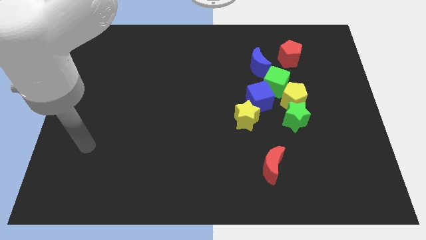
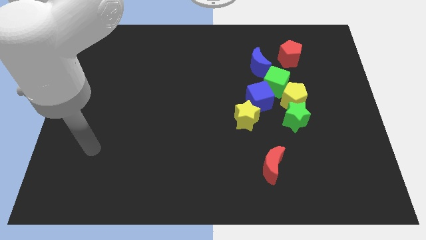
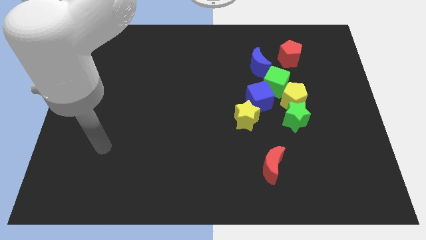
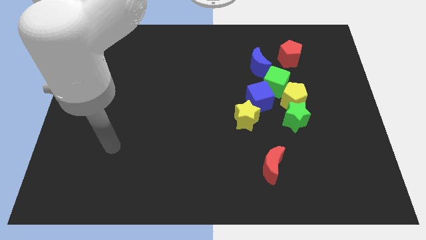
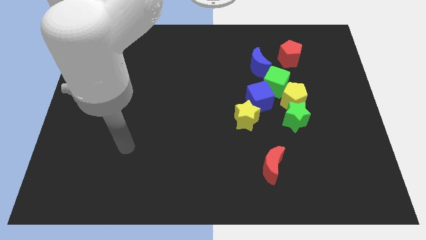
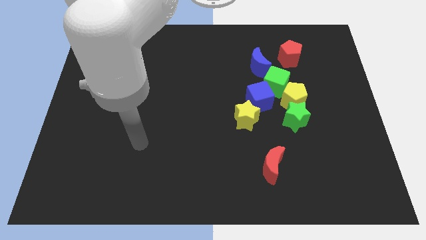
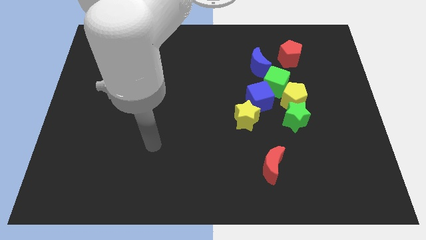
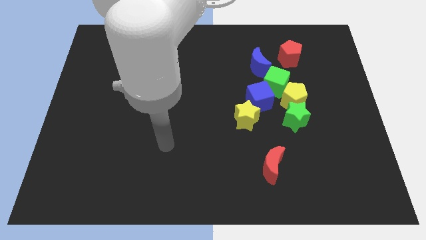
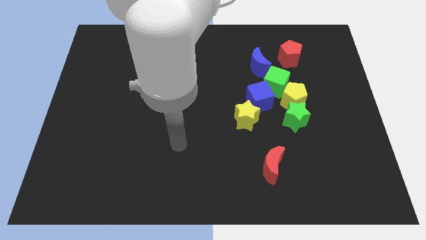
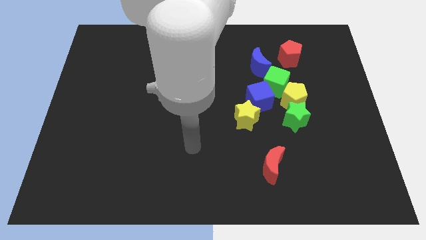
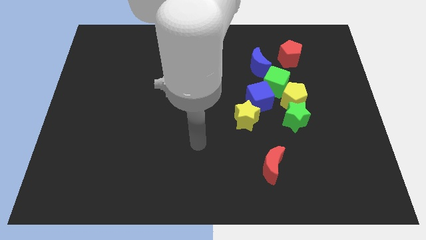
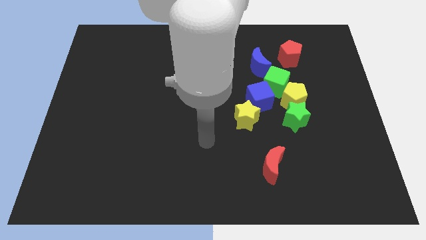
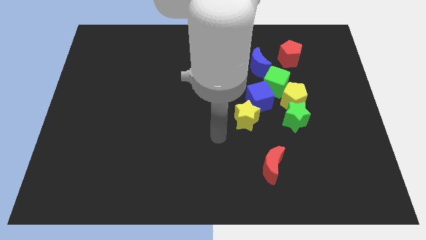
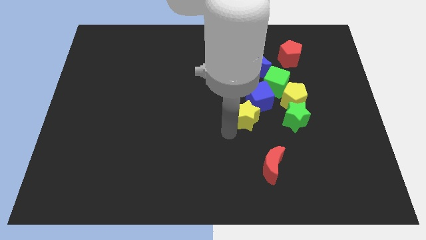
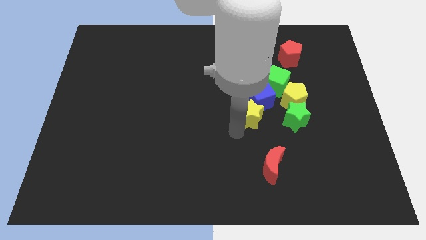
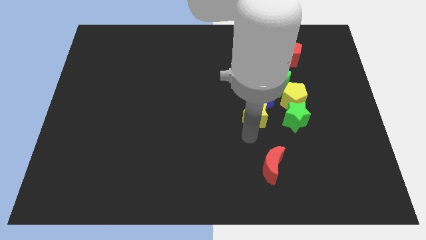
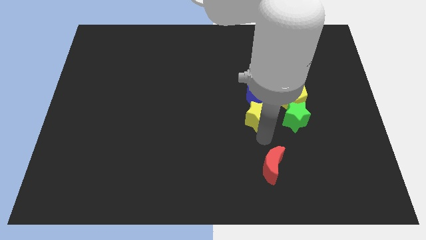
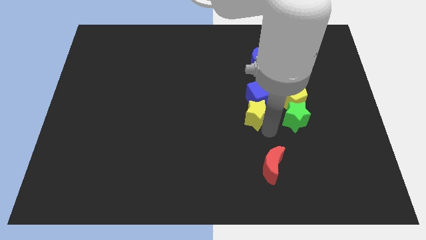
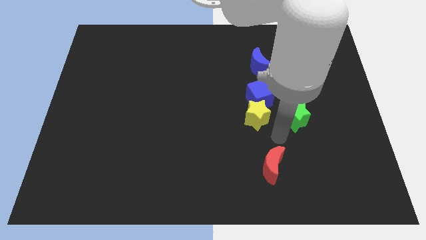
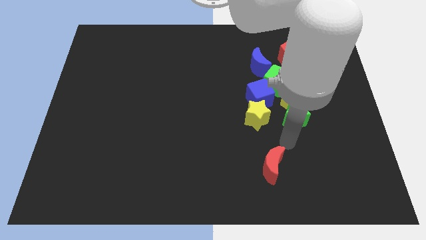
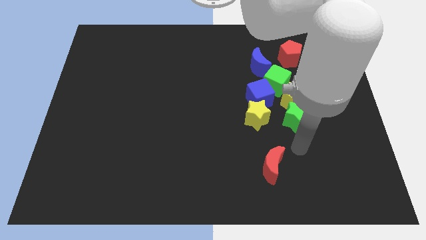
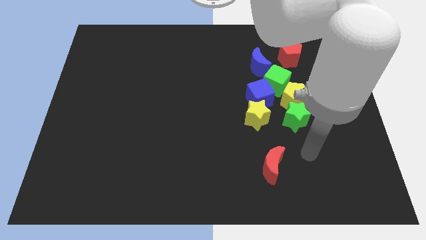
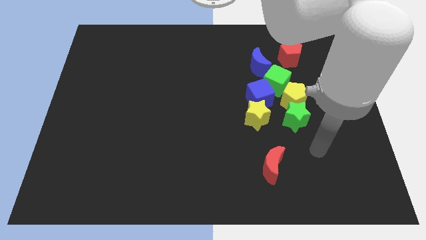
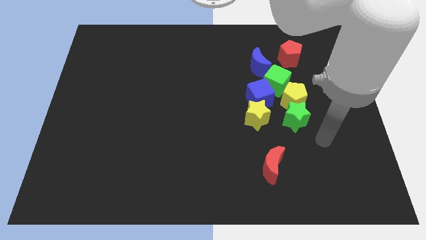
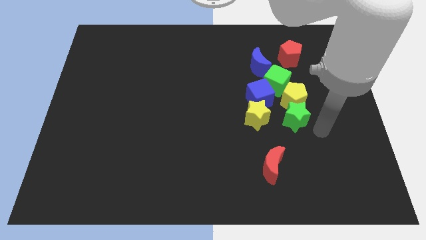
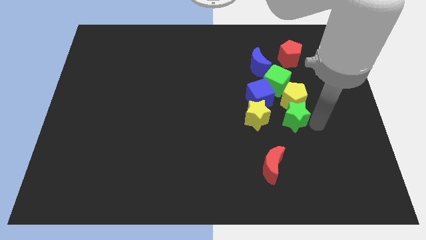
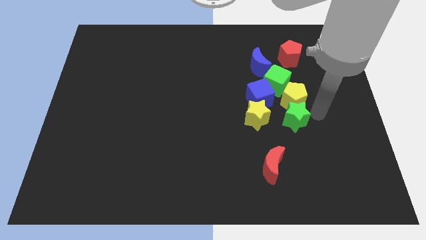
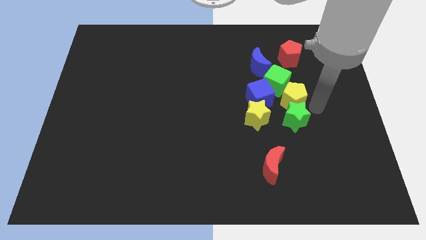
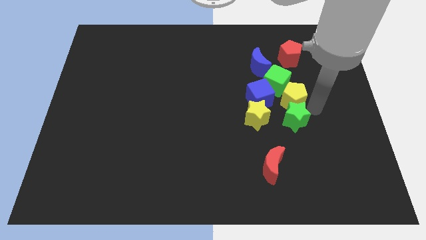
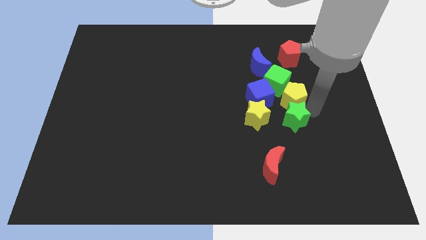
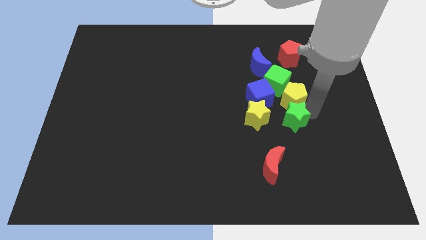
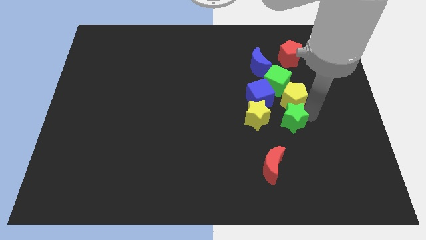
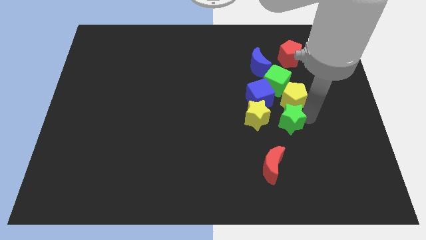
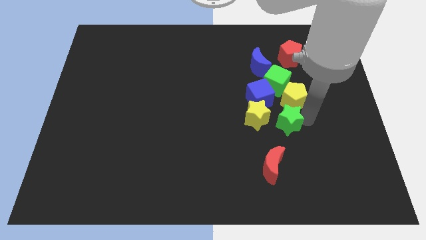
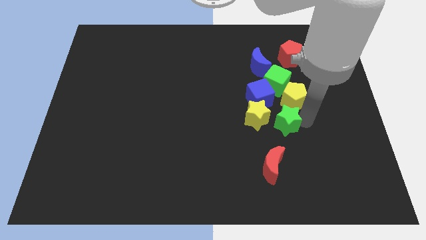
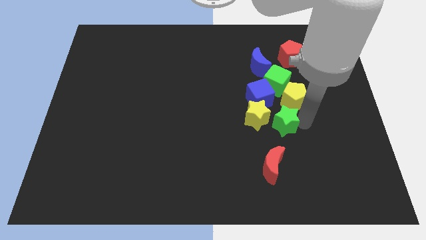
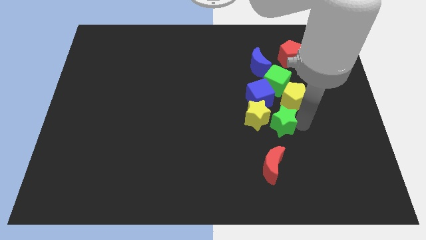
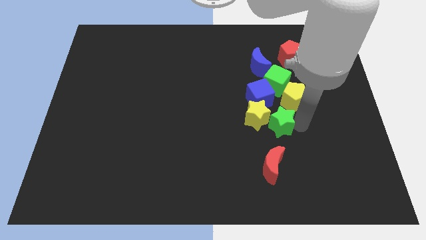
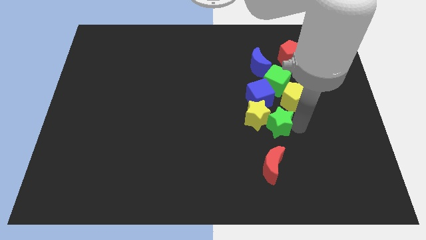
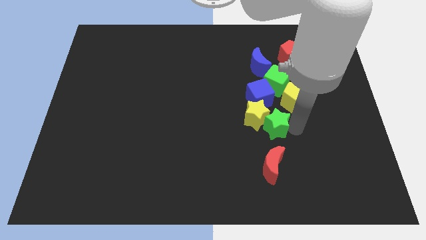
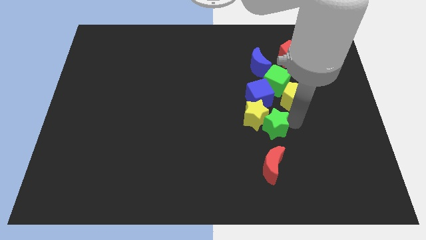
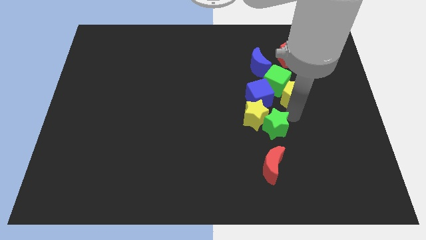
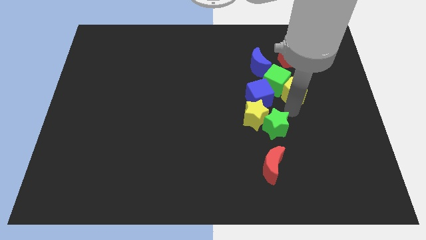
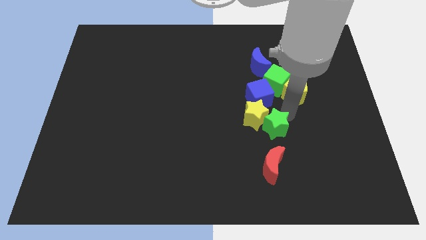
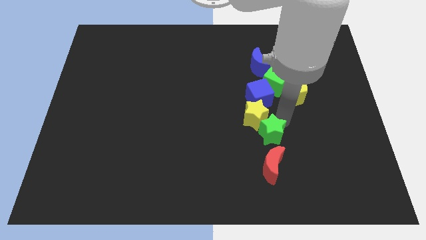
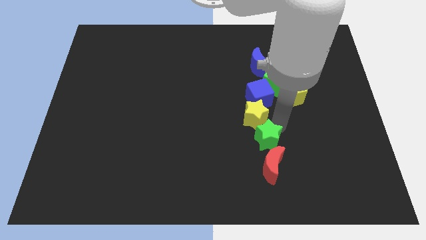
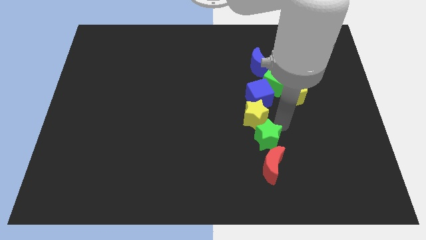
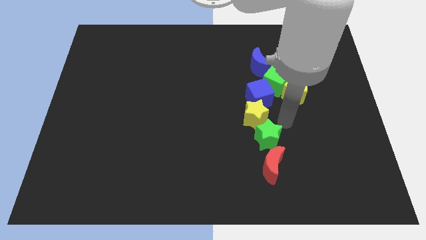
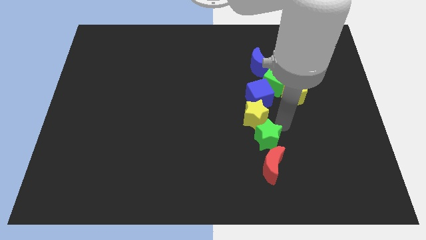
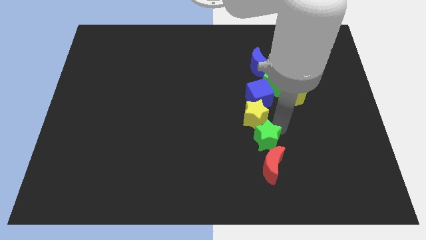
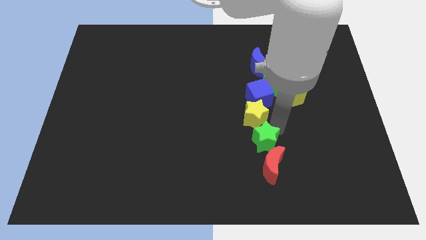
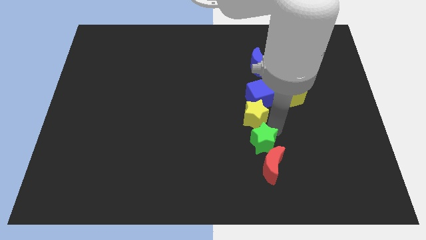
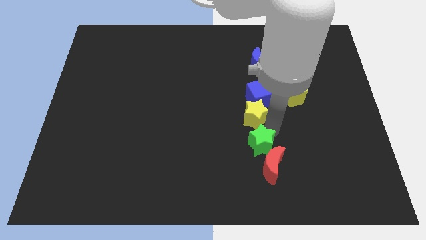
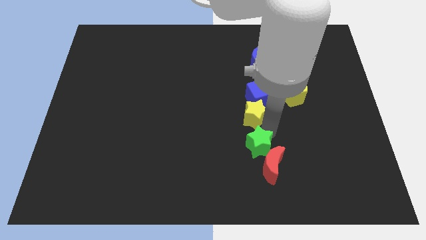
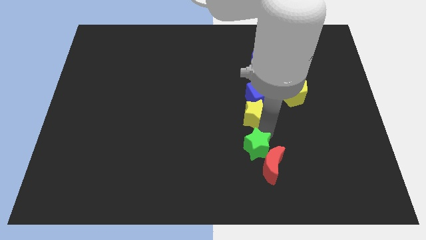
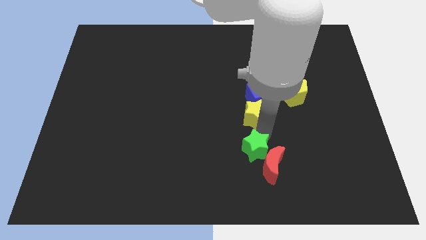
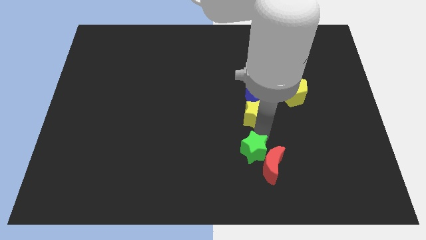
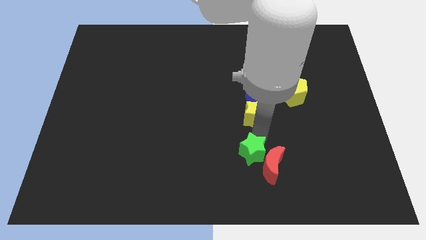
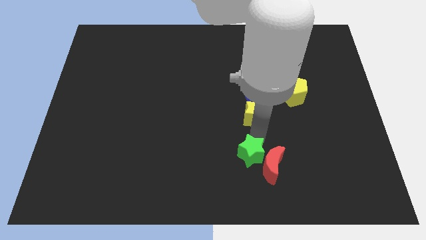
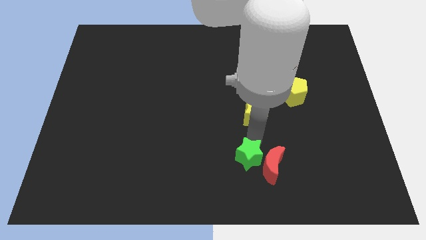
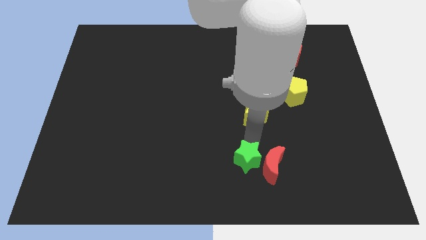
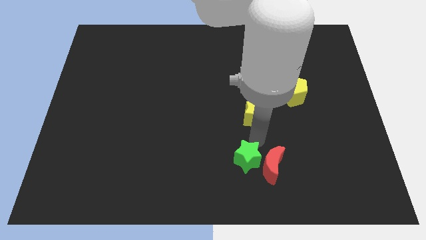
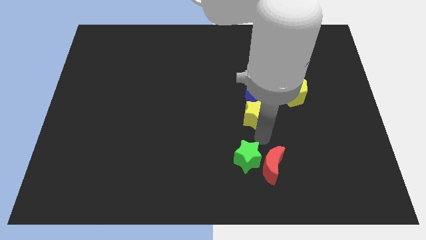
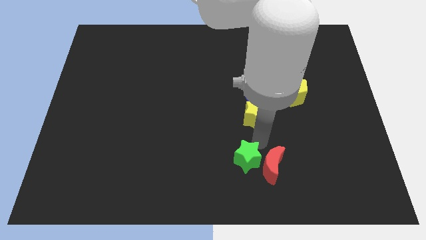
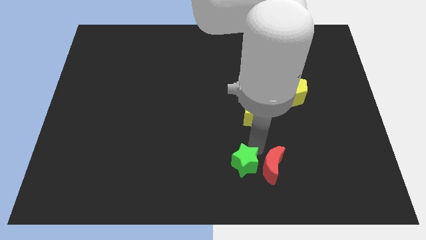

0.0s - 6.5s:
push the green star to the bottom side
